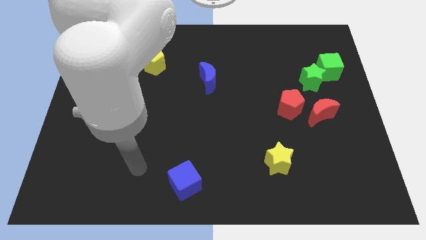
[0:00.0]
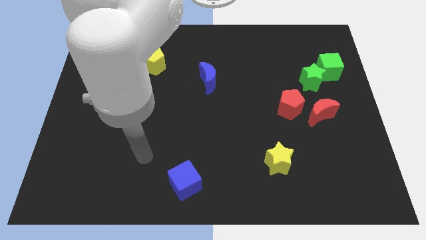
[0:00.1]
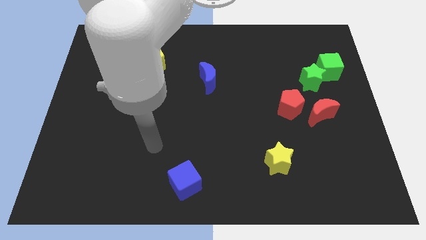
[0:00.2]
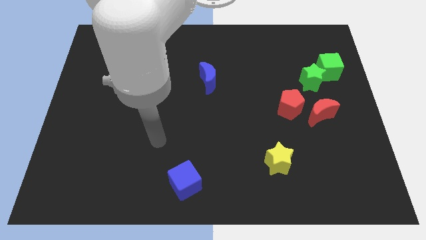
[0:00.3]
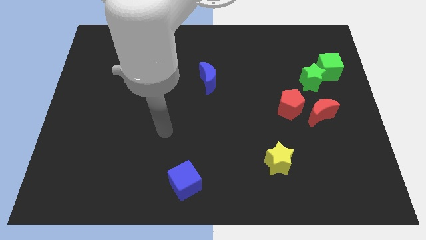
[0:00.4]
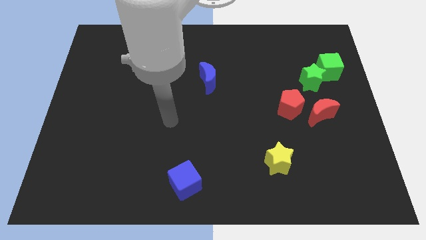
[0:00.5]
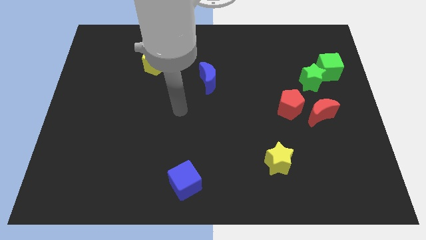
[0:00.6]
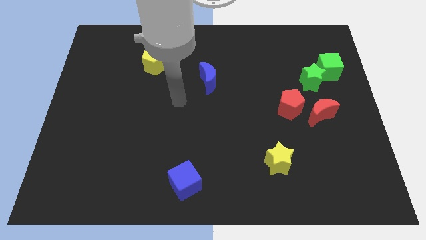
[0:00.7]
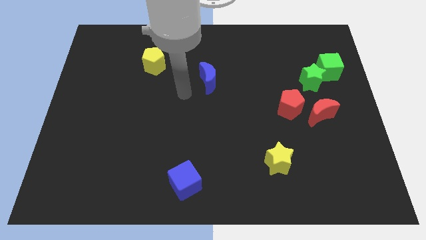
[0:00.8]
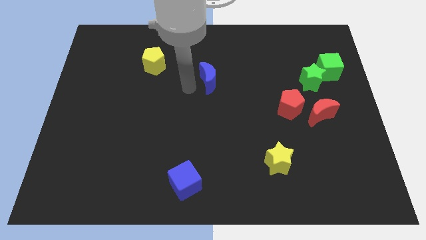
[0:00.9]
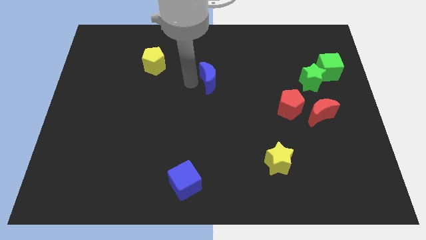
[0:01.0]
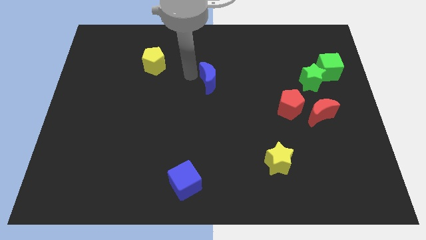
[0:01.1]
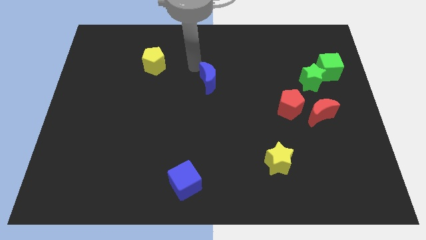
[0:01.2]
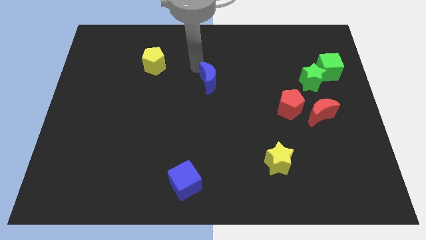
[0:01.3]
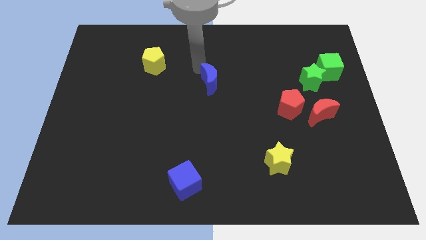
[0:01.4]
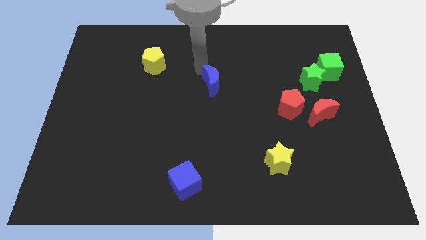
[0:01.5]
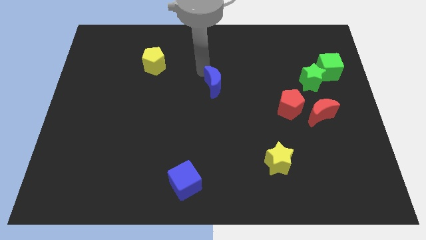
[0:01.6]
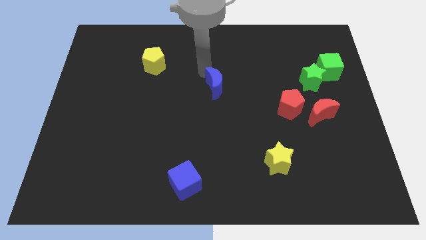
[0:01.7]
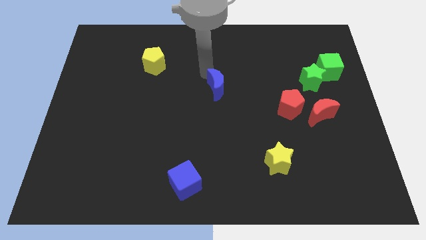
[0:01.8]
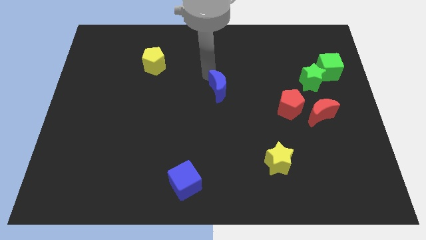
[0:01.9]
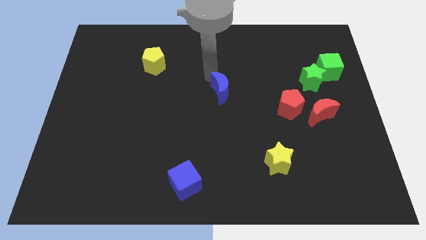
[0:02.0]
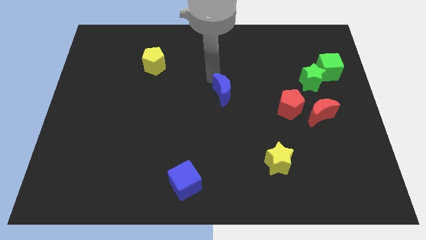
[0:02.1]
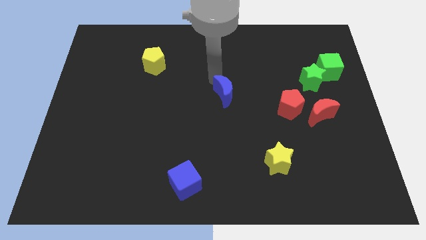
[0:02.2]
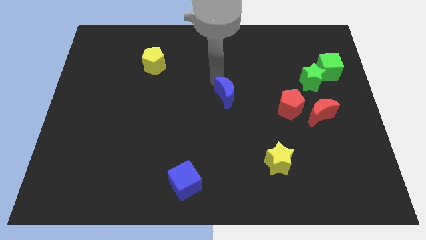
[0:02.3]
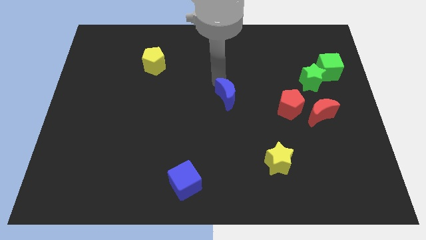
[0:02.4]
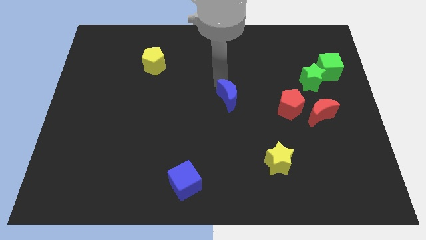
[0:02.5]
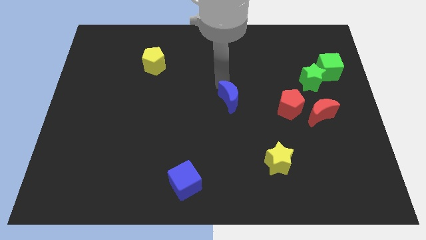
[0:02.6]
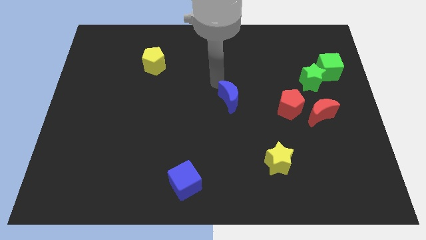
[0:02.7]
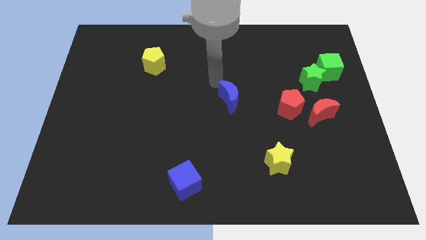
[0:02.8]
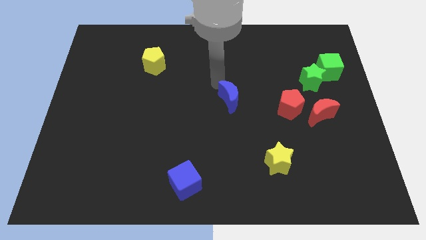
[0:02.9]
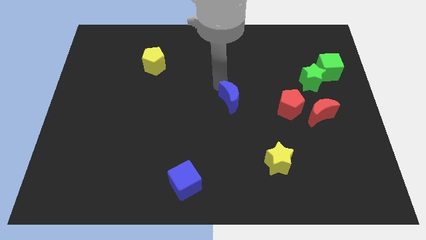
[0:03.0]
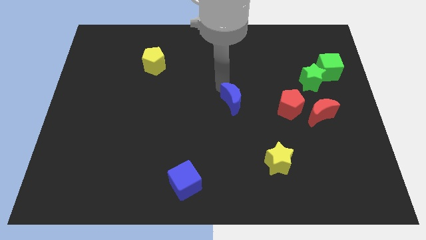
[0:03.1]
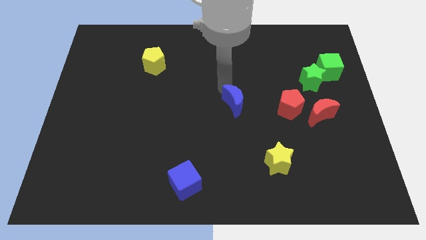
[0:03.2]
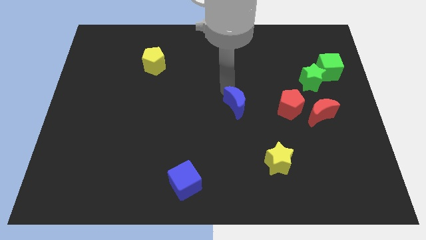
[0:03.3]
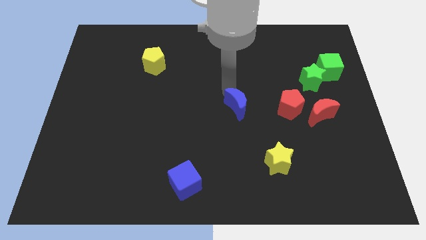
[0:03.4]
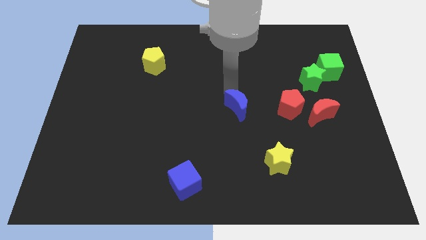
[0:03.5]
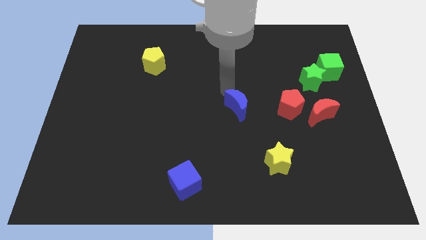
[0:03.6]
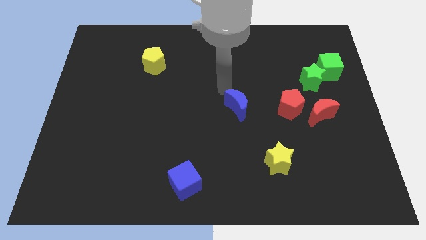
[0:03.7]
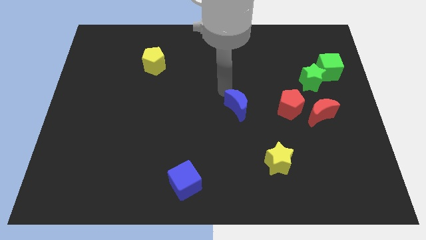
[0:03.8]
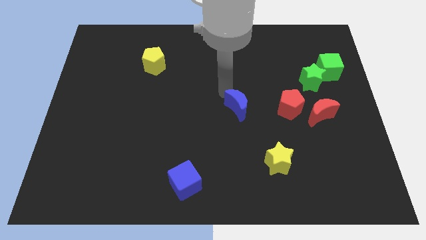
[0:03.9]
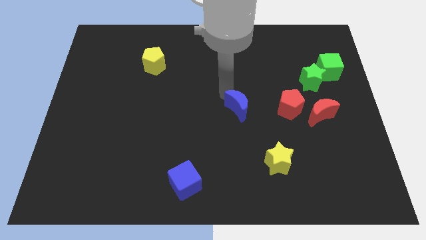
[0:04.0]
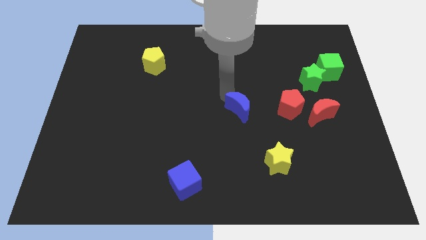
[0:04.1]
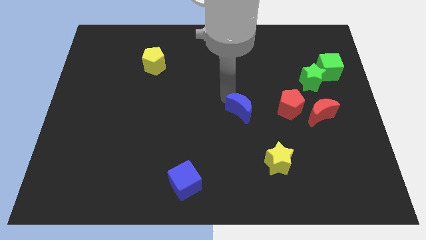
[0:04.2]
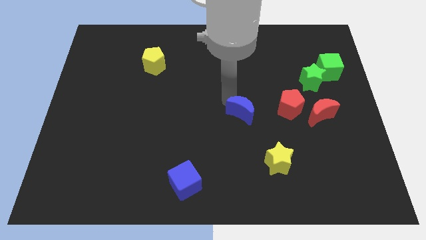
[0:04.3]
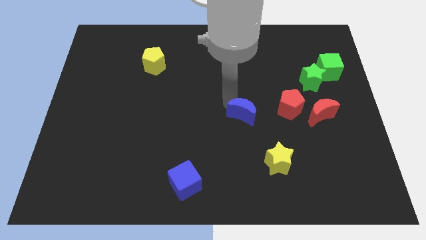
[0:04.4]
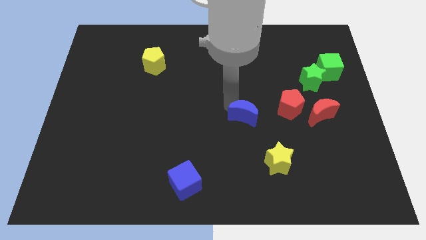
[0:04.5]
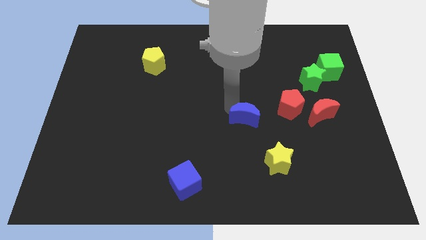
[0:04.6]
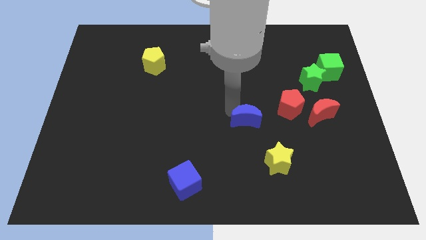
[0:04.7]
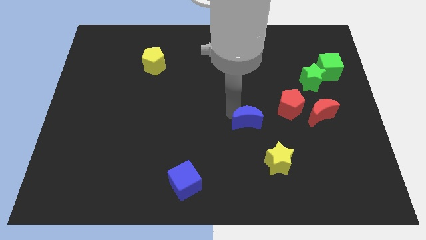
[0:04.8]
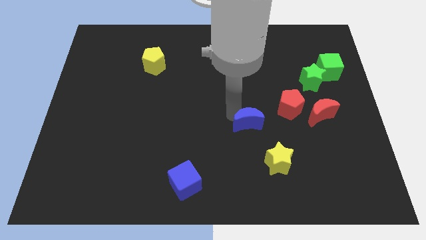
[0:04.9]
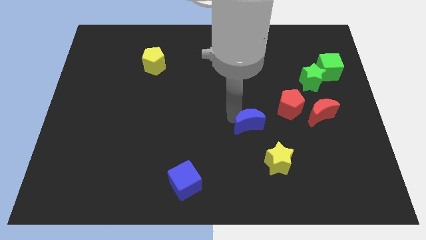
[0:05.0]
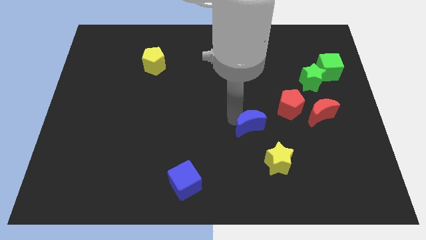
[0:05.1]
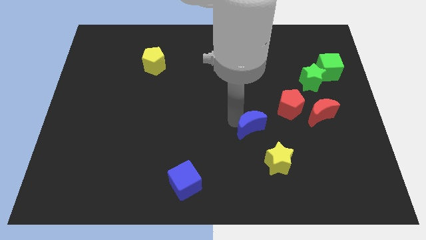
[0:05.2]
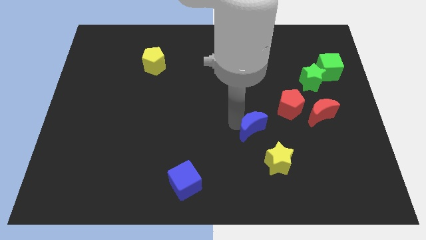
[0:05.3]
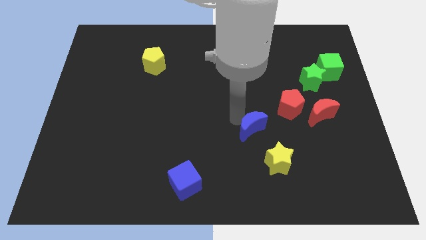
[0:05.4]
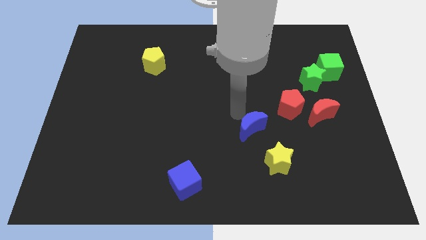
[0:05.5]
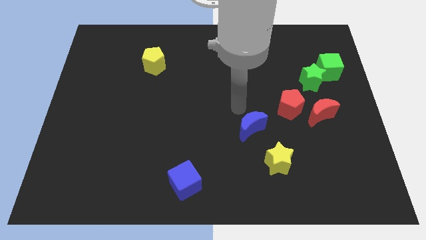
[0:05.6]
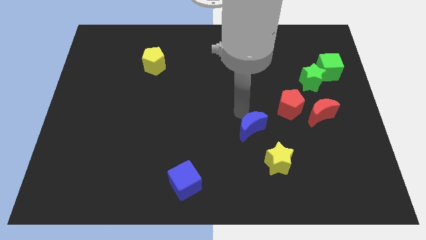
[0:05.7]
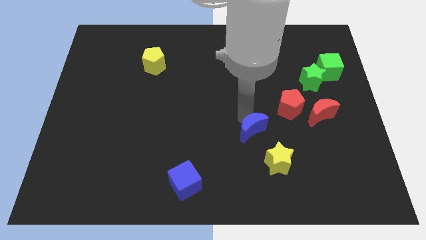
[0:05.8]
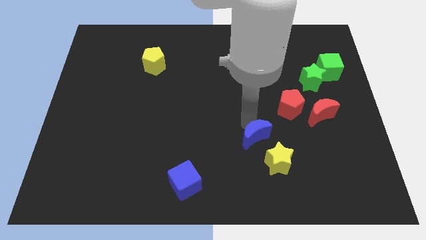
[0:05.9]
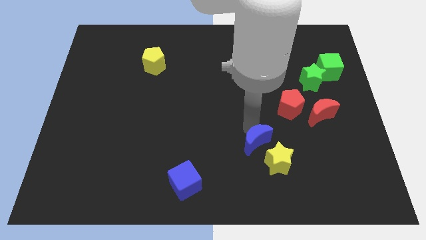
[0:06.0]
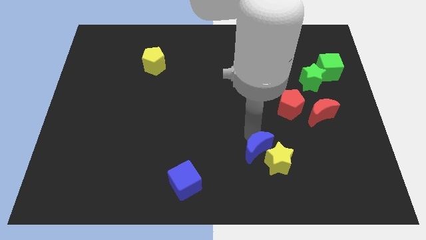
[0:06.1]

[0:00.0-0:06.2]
push the blue moon towards the yellow star

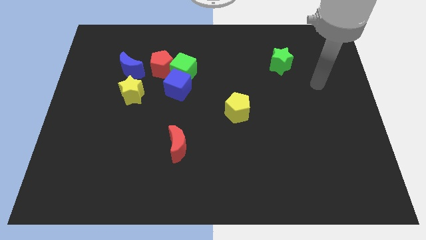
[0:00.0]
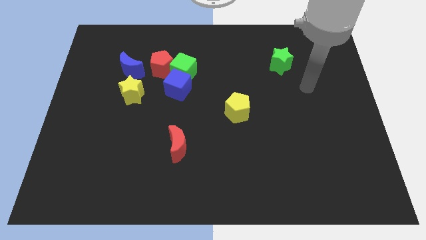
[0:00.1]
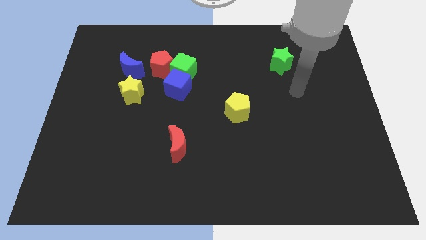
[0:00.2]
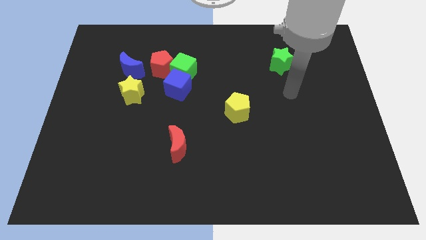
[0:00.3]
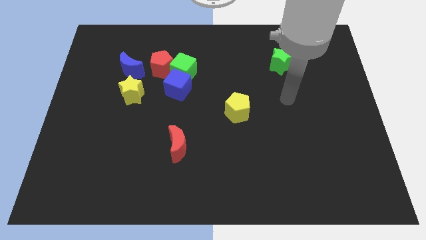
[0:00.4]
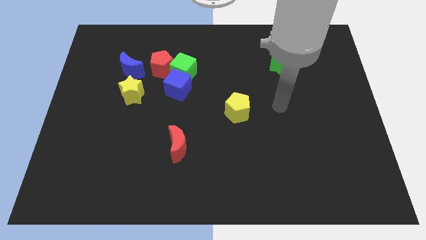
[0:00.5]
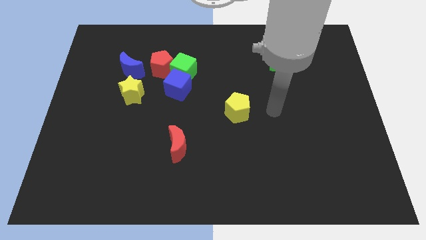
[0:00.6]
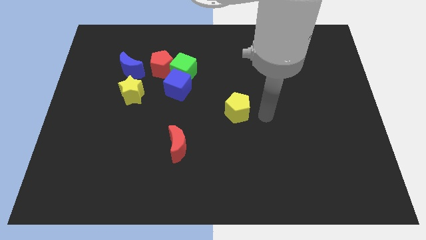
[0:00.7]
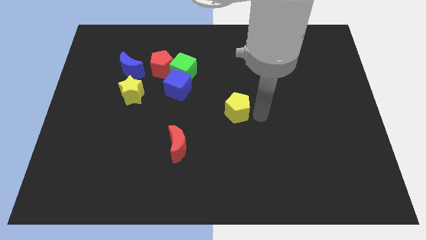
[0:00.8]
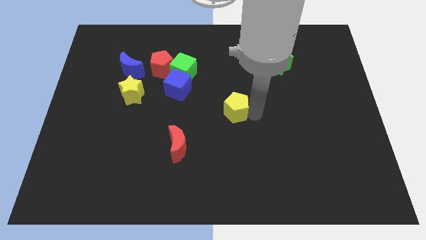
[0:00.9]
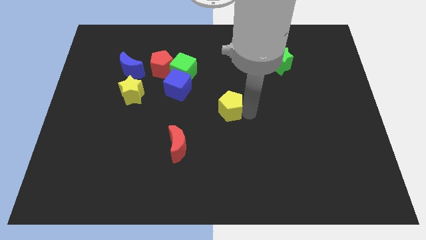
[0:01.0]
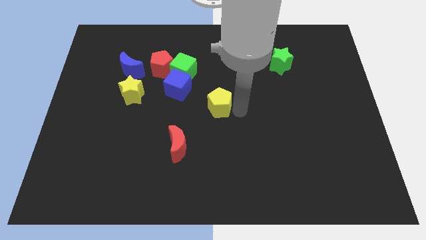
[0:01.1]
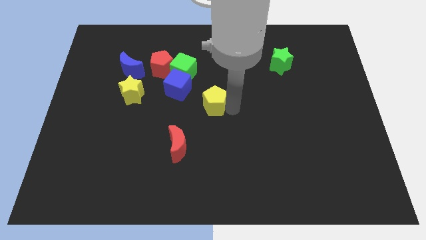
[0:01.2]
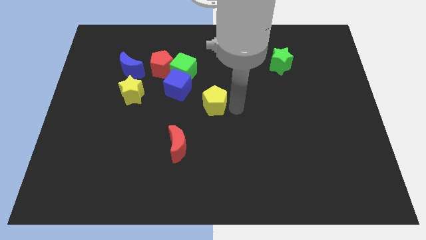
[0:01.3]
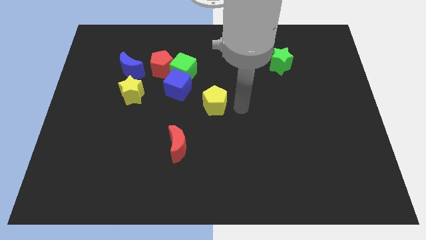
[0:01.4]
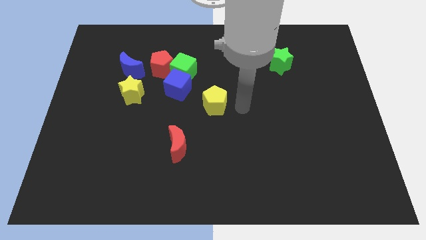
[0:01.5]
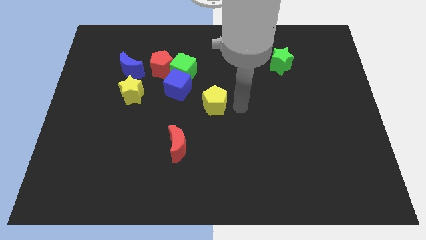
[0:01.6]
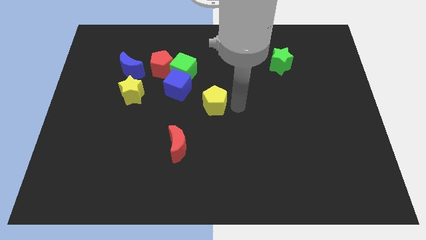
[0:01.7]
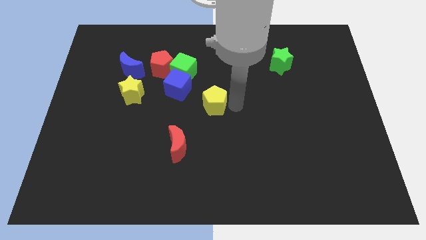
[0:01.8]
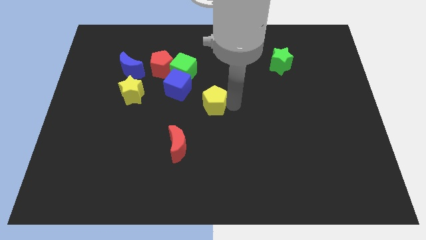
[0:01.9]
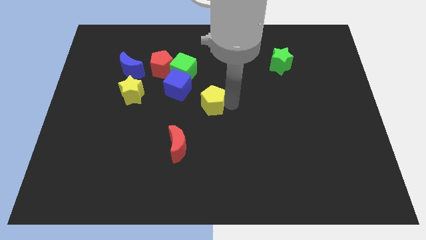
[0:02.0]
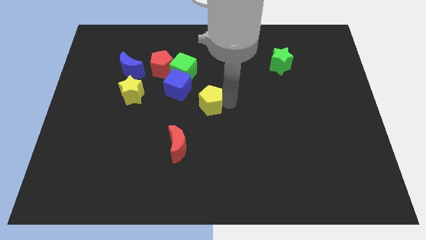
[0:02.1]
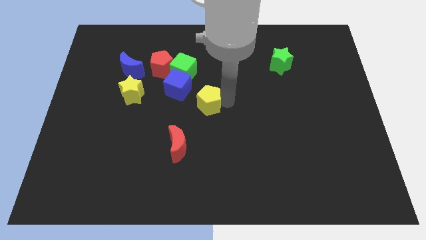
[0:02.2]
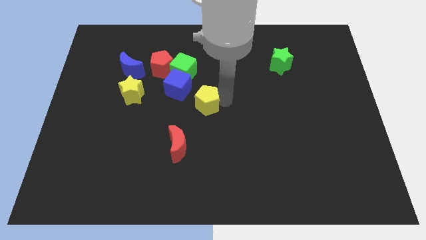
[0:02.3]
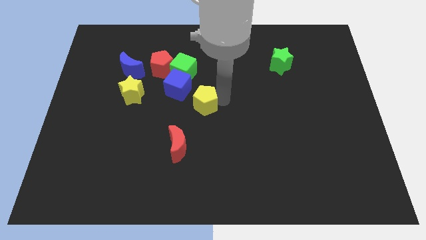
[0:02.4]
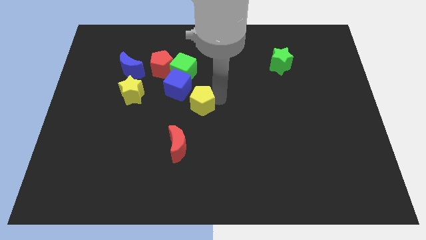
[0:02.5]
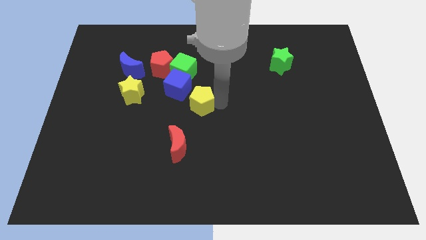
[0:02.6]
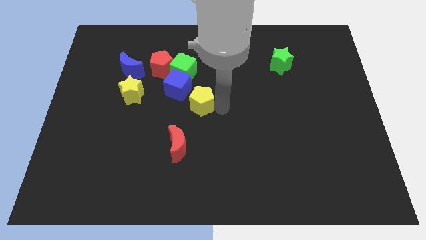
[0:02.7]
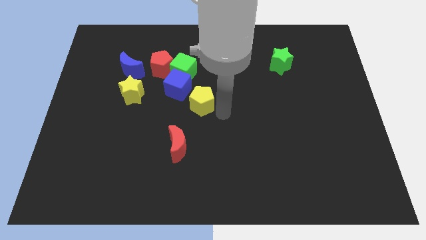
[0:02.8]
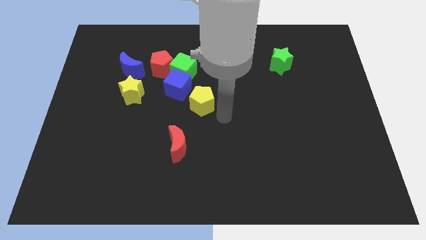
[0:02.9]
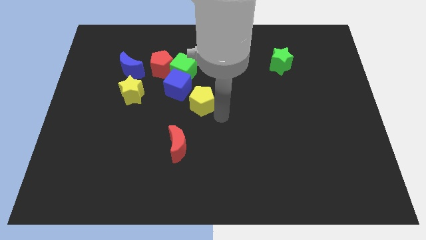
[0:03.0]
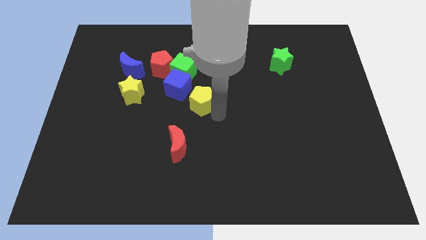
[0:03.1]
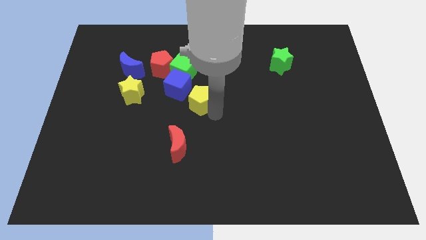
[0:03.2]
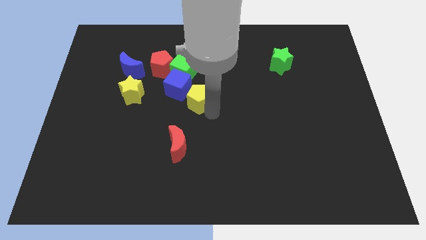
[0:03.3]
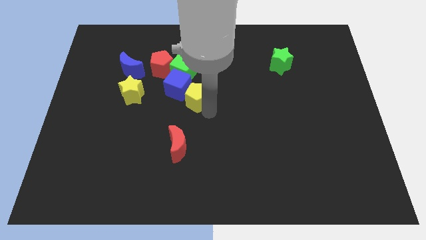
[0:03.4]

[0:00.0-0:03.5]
push the yellow pentagon next to the blue cube
